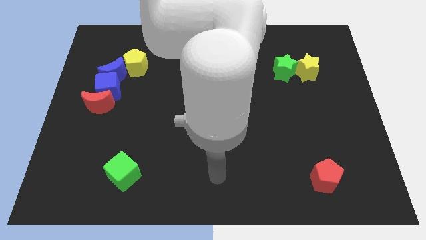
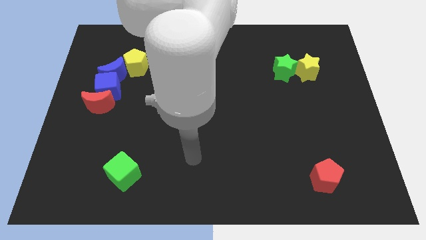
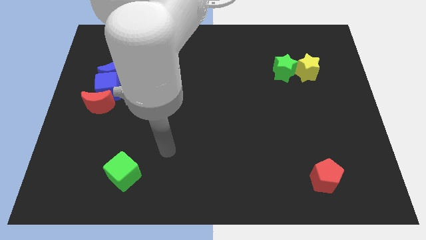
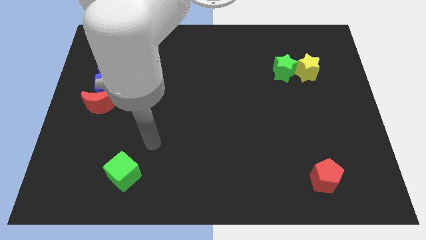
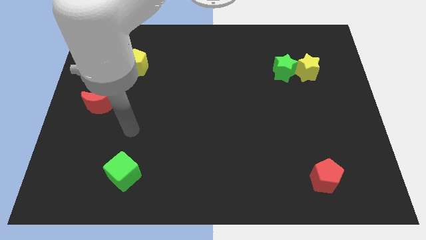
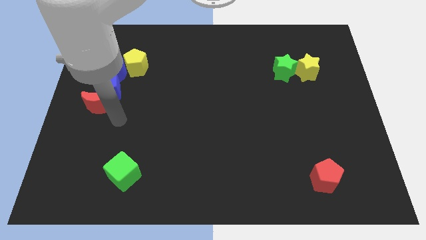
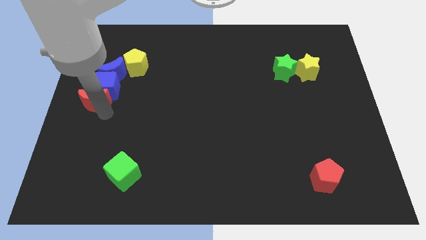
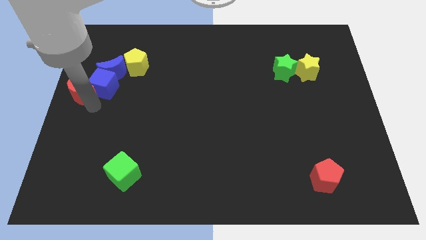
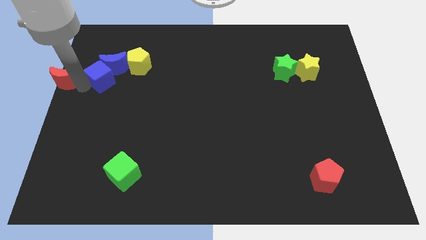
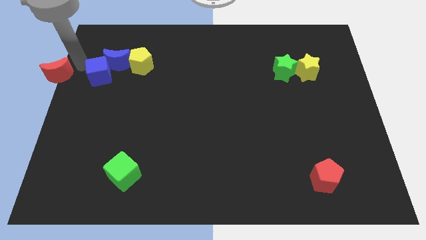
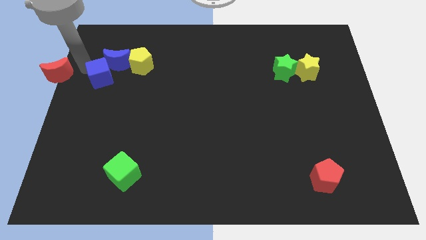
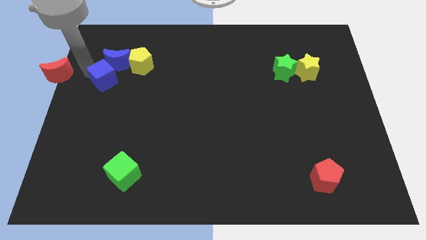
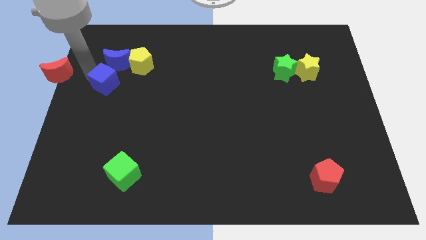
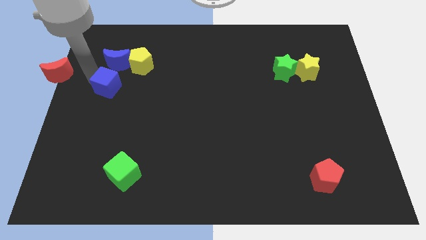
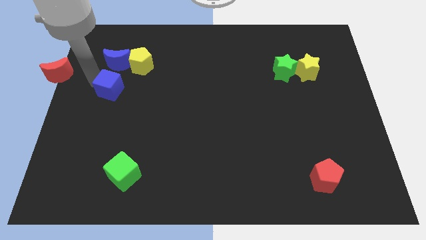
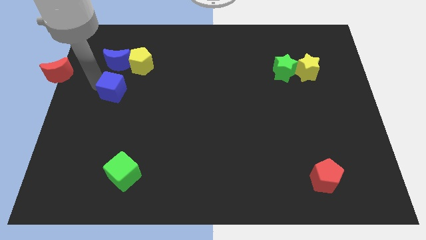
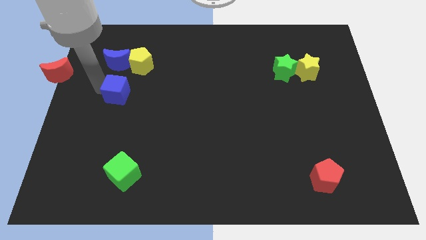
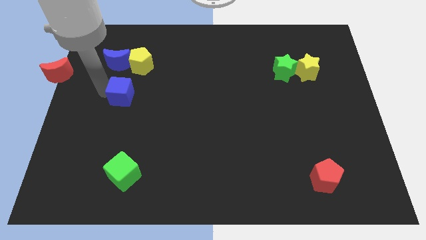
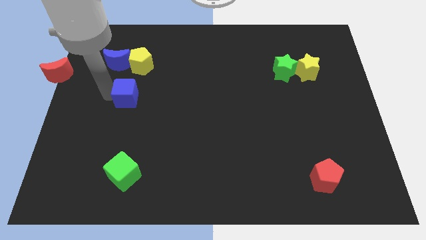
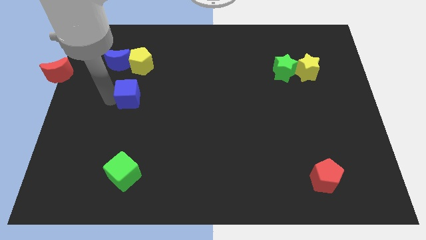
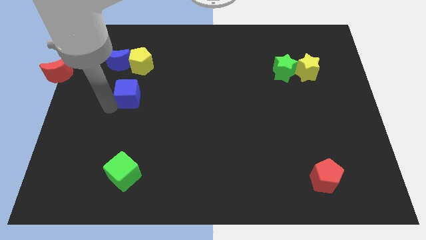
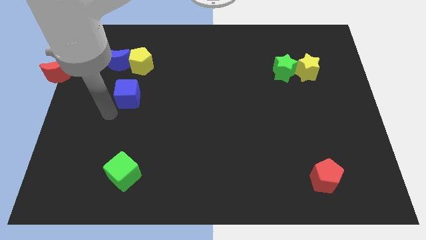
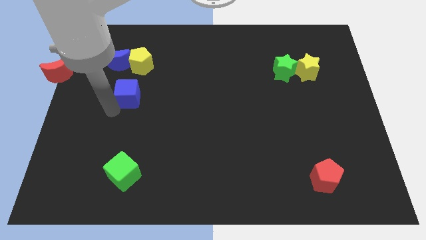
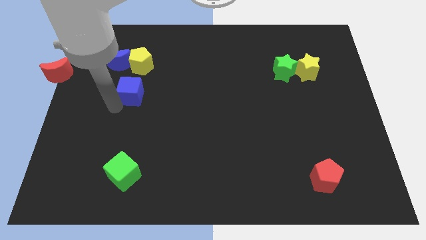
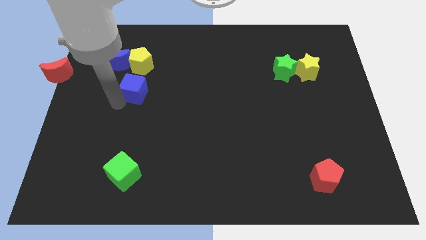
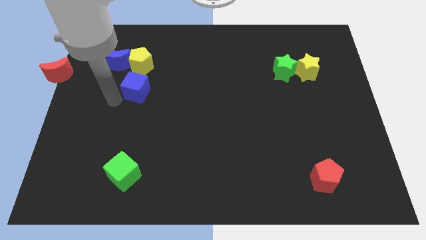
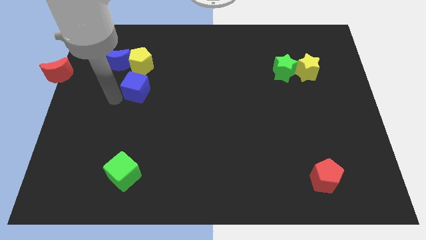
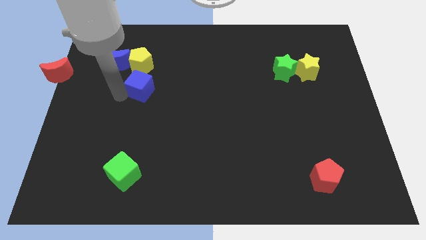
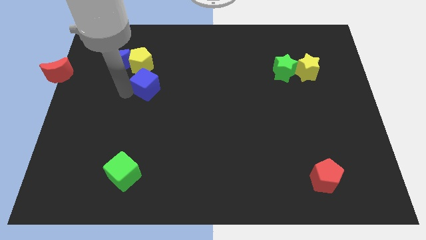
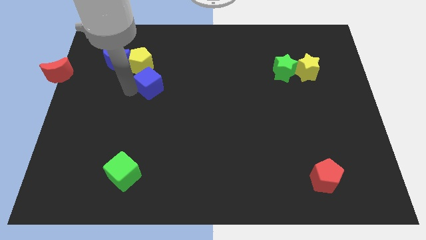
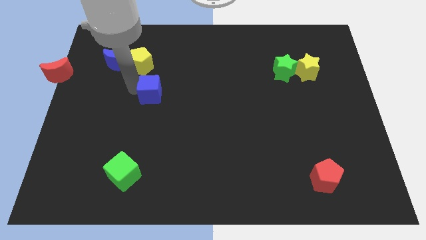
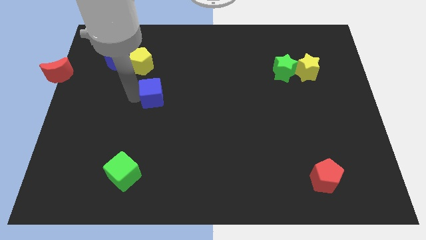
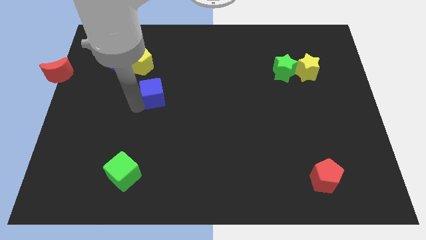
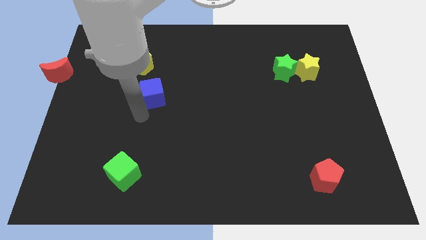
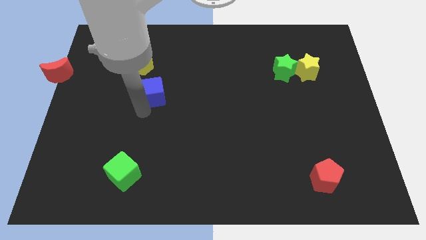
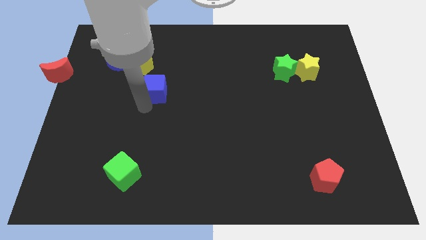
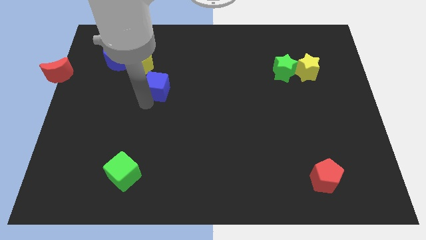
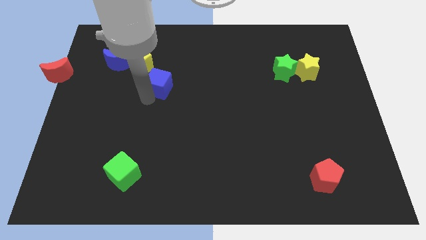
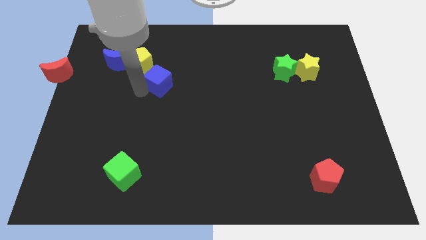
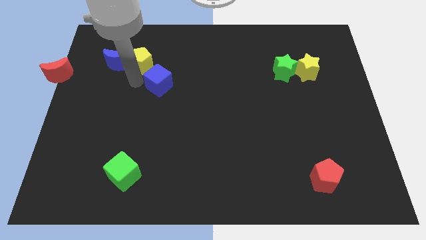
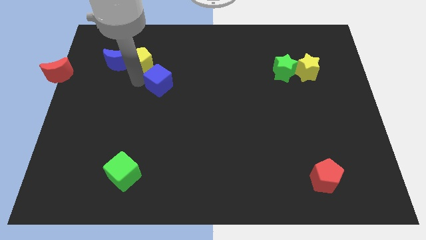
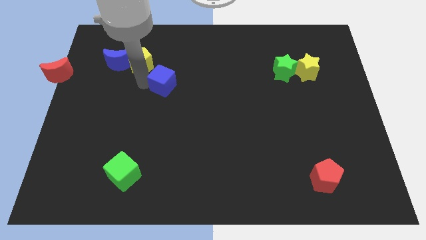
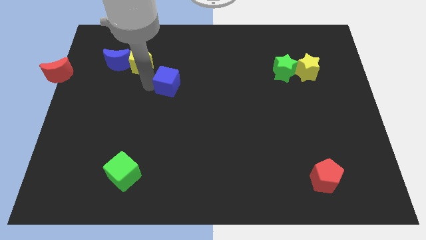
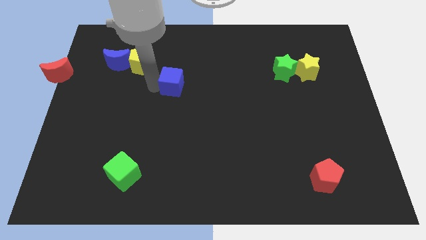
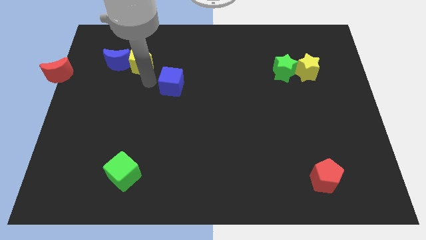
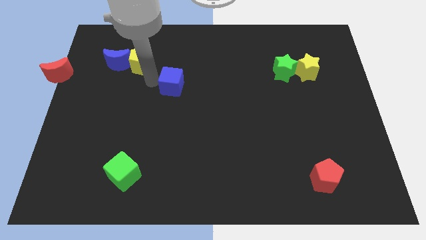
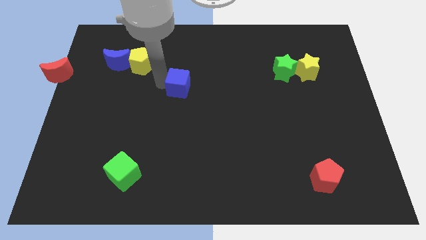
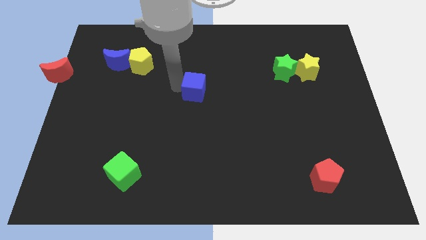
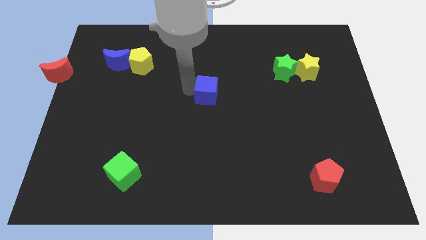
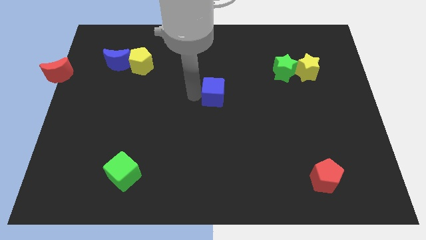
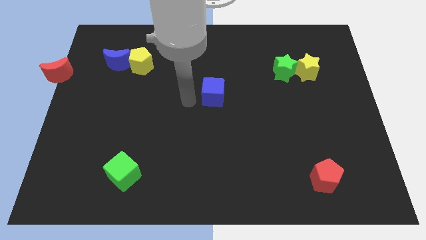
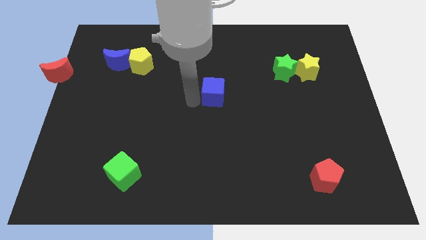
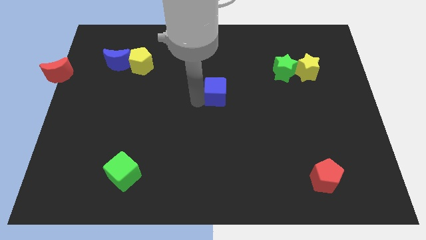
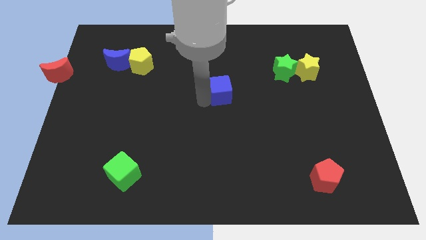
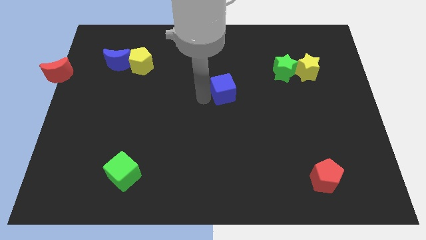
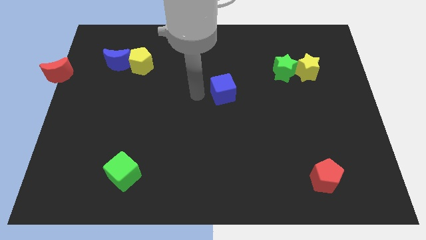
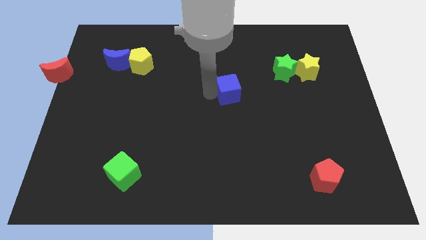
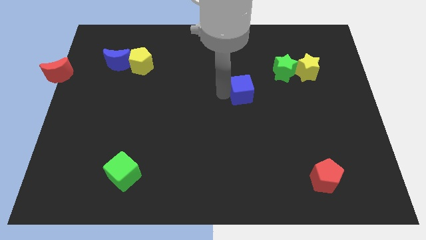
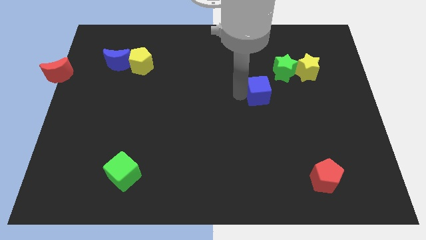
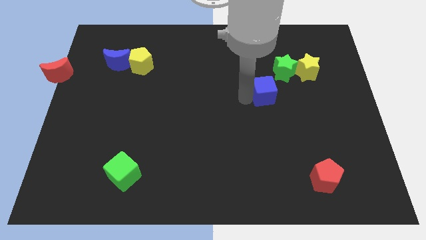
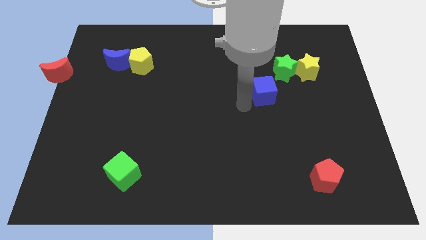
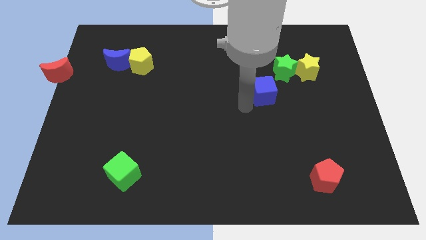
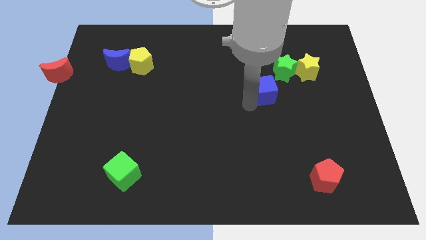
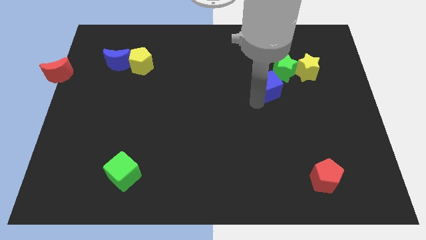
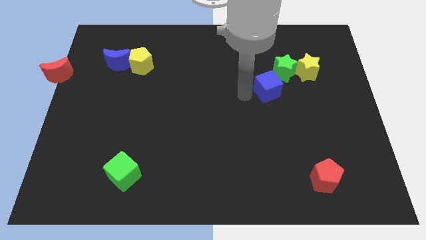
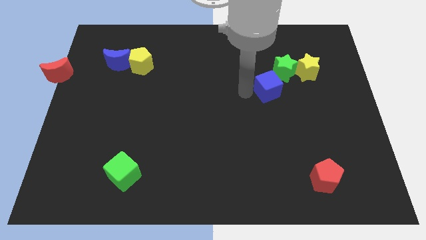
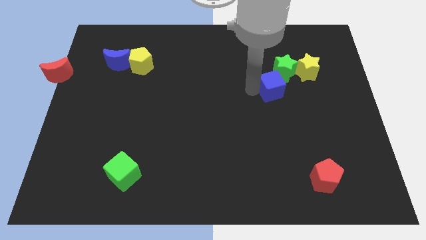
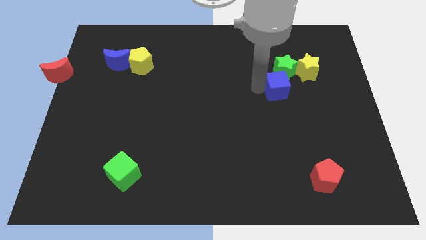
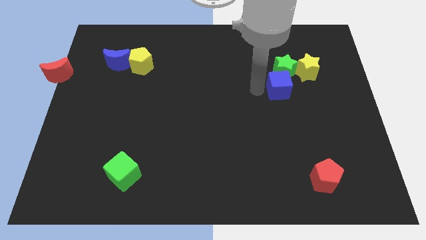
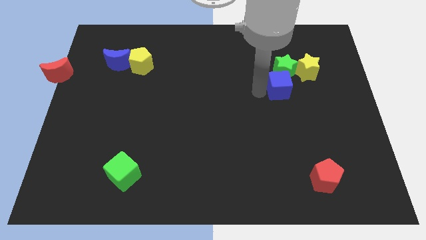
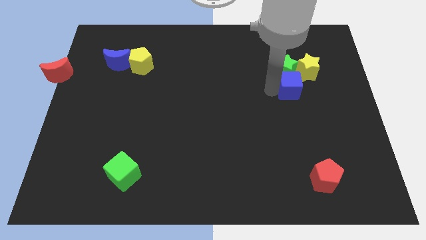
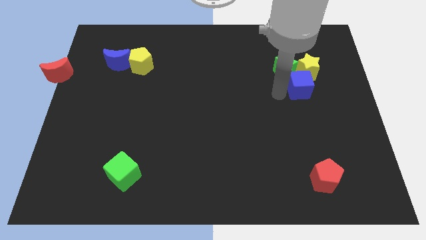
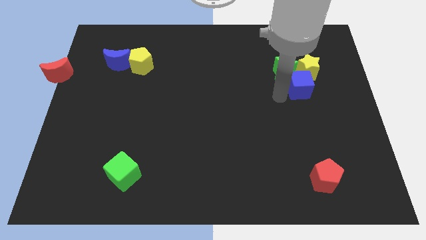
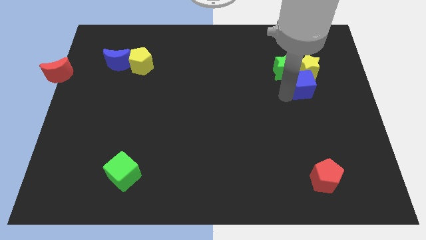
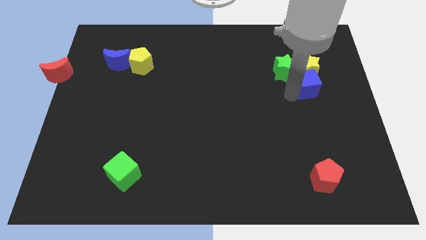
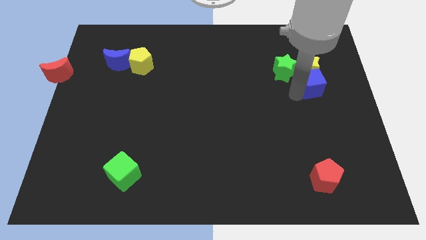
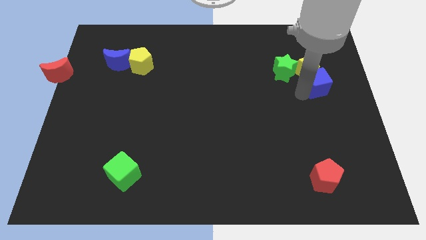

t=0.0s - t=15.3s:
move the blue cube to the right side of the green star
